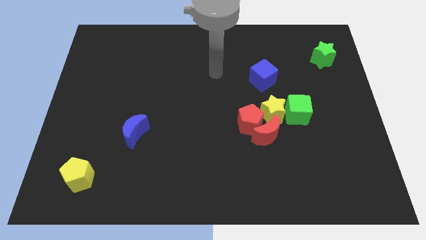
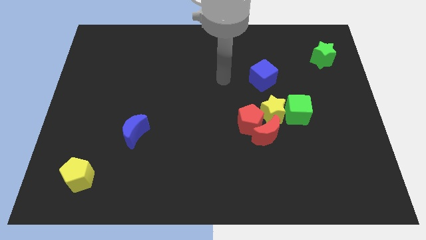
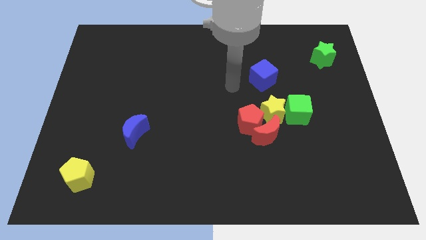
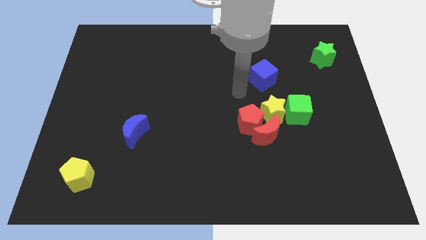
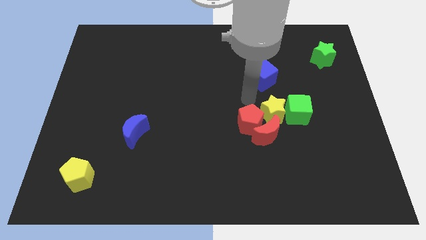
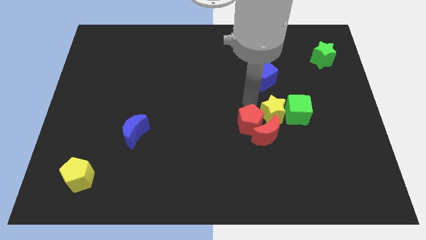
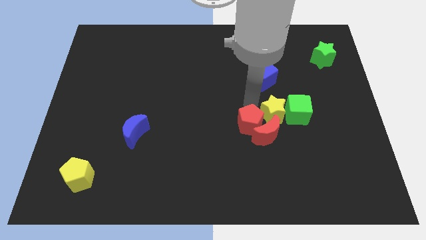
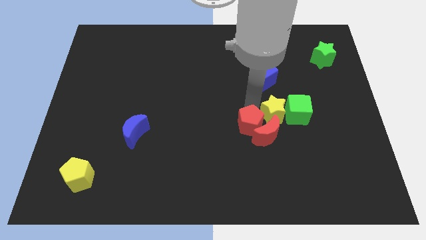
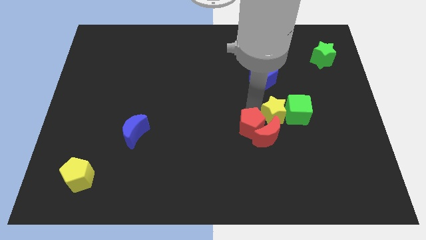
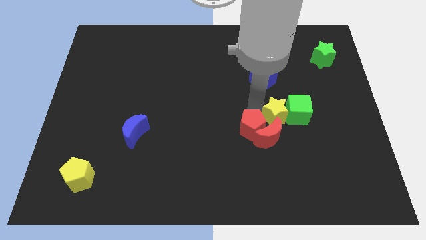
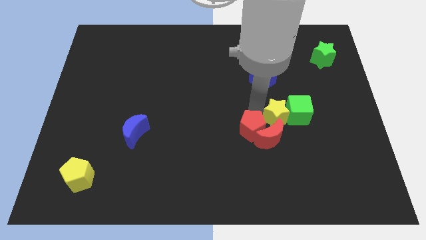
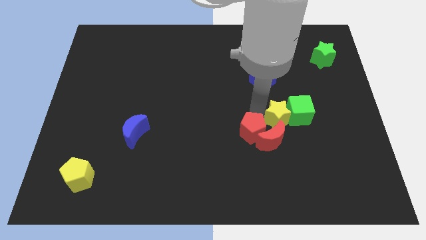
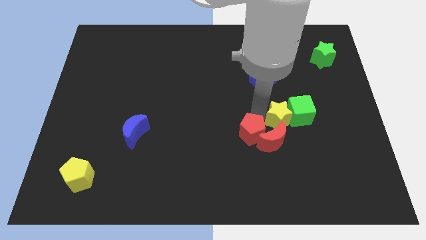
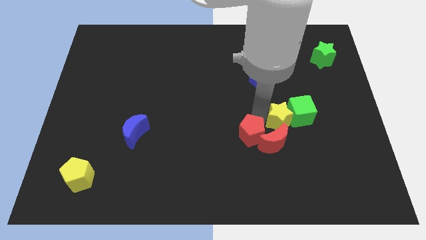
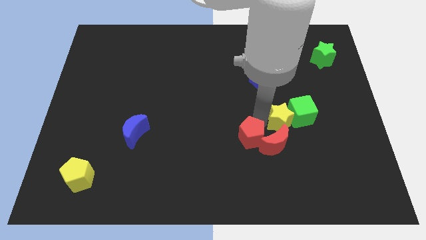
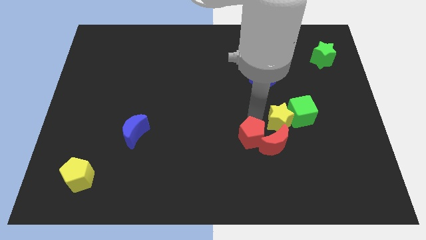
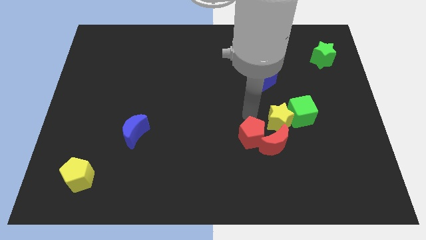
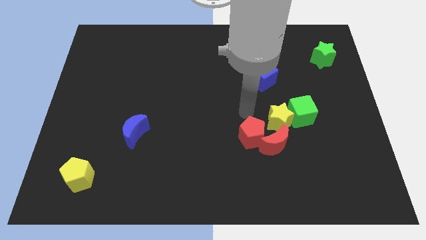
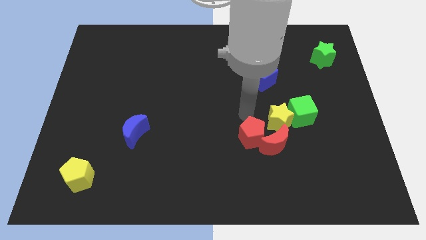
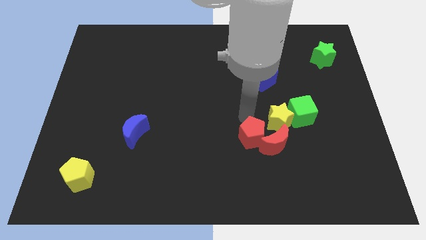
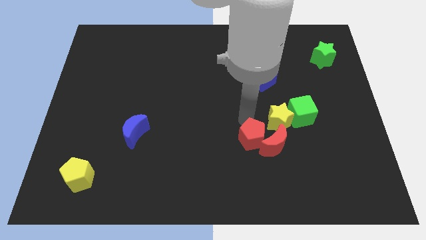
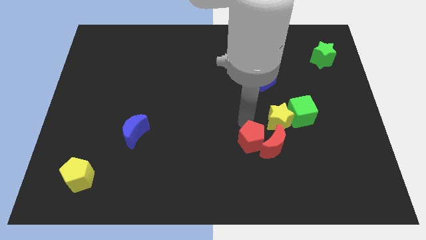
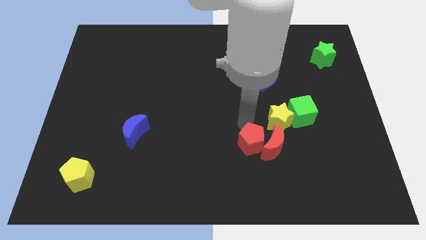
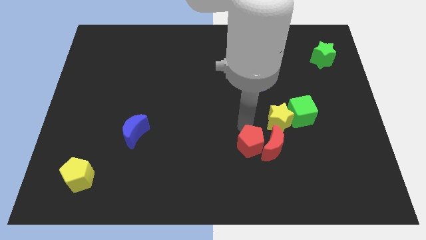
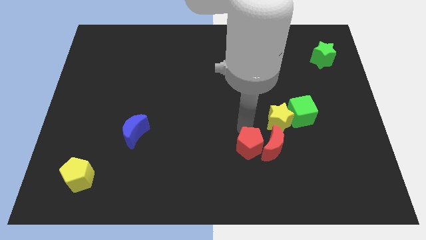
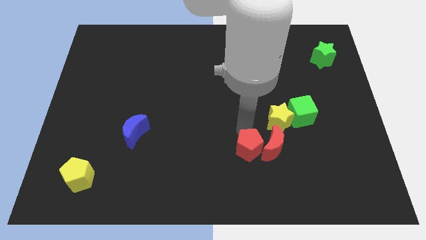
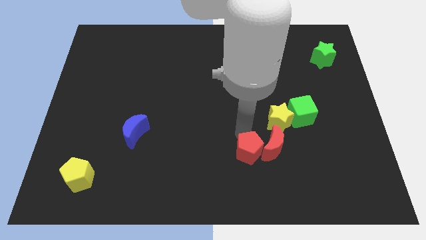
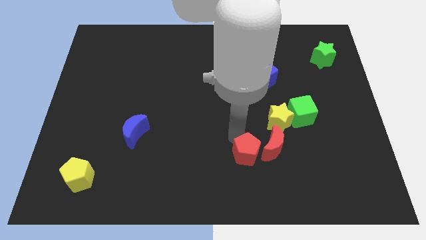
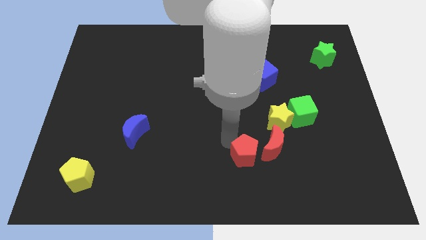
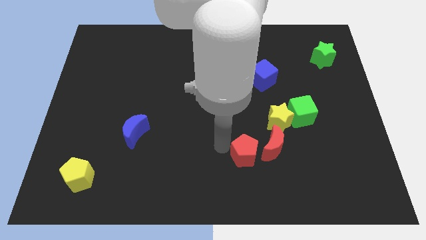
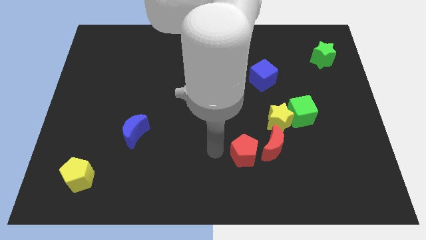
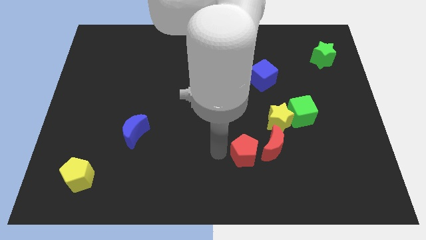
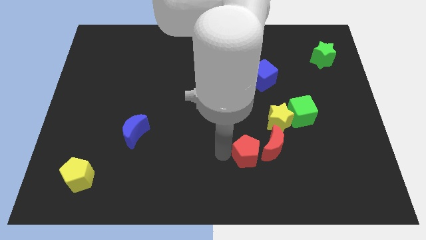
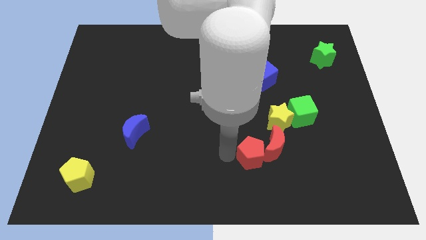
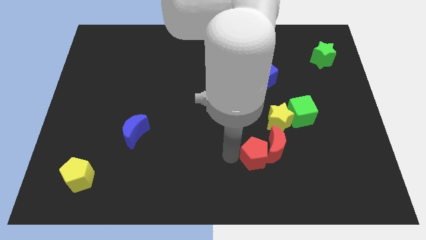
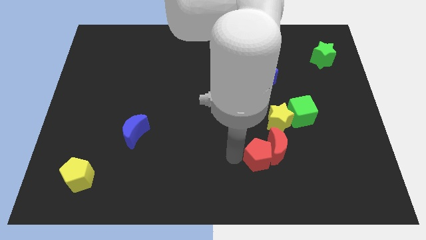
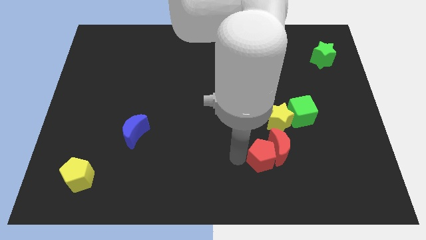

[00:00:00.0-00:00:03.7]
move the red pentagon down and to the right slightly

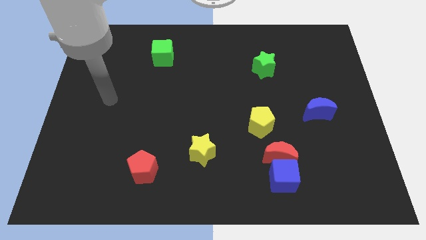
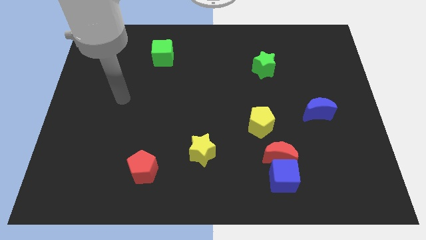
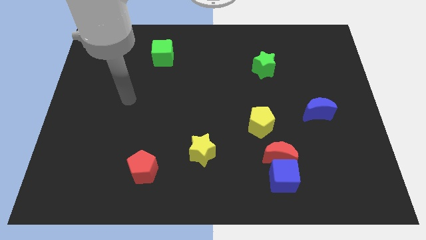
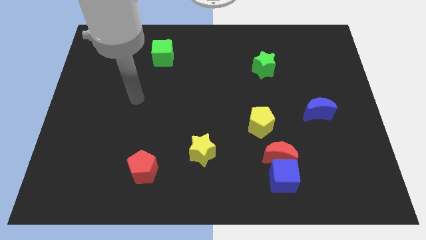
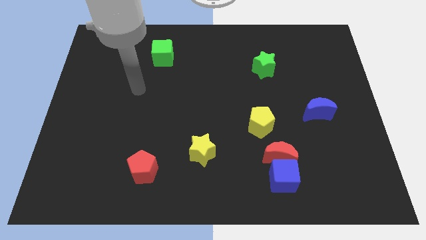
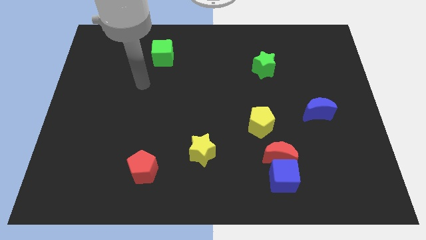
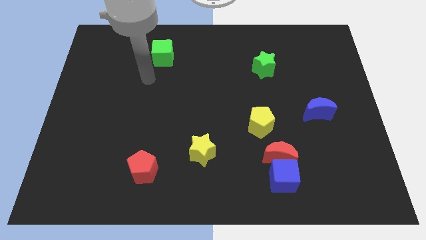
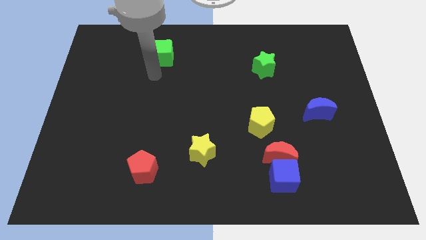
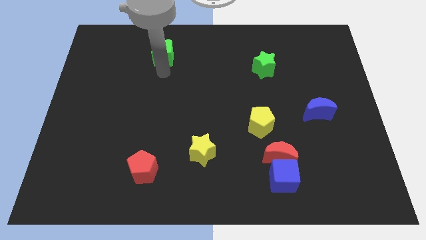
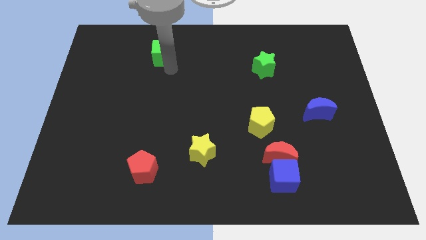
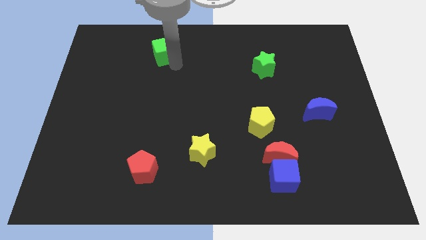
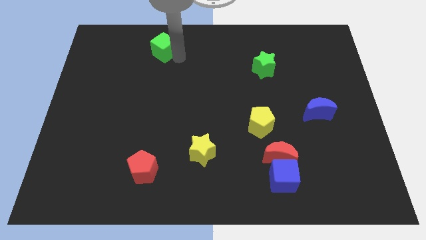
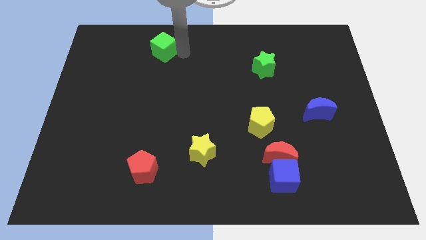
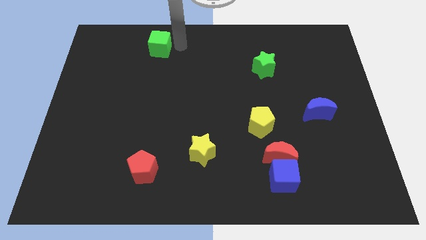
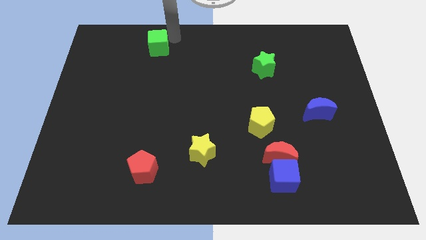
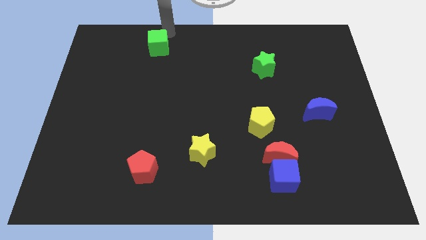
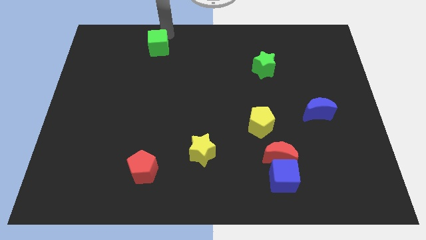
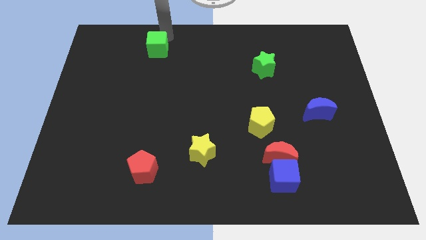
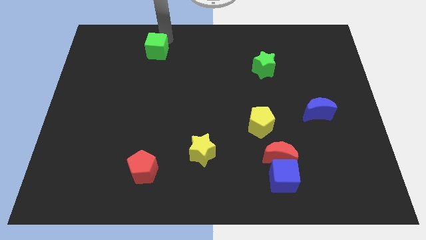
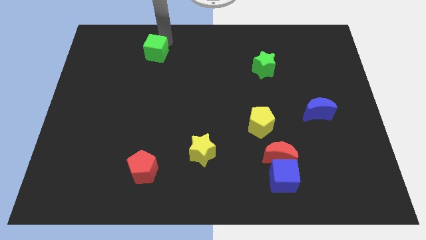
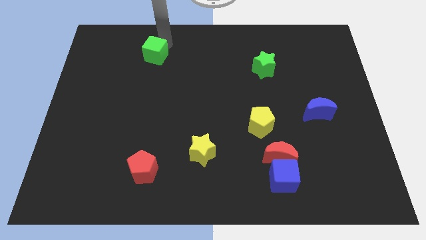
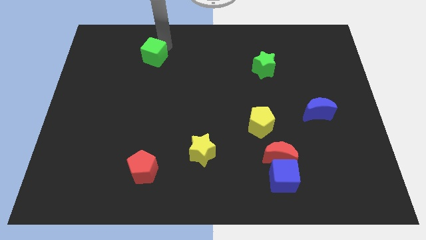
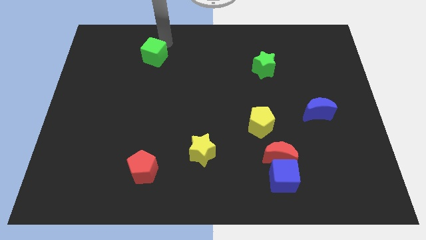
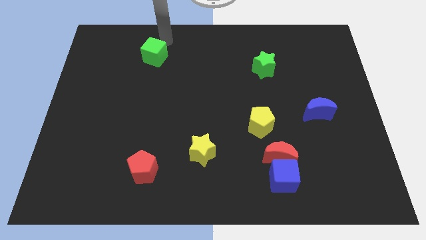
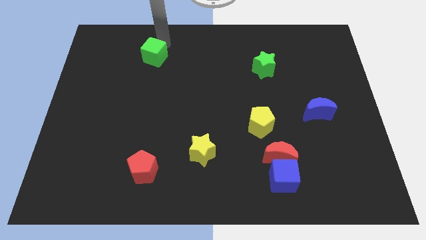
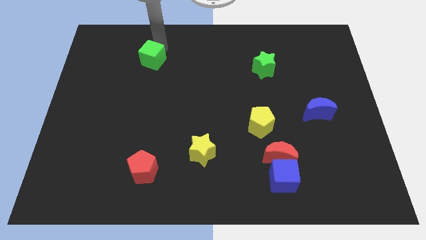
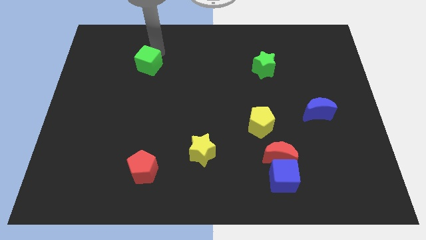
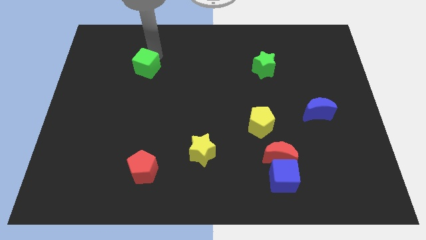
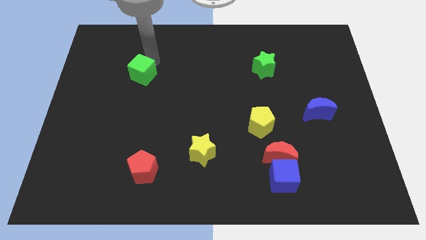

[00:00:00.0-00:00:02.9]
push the green cube a little down and to the left diagonally

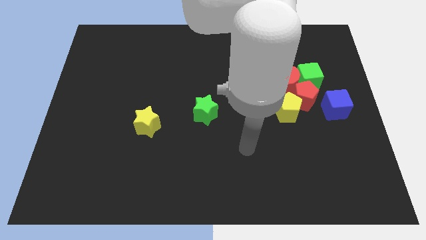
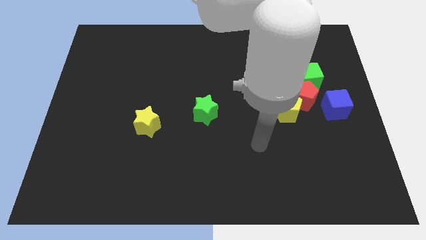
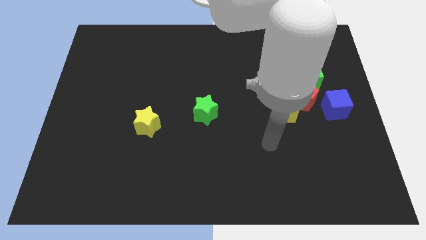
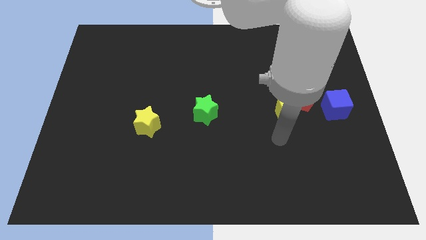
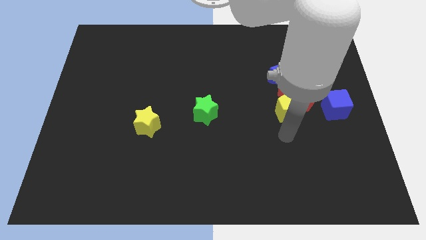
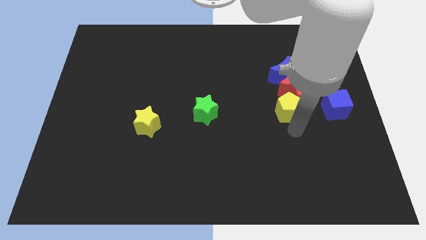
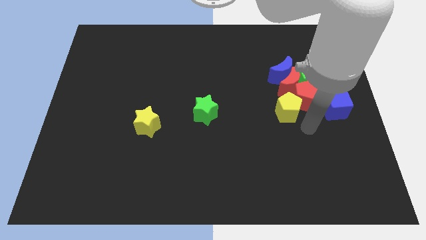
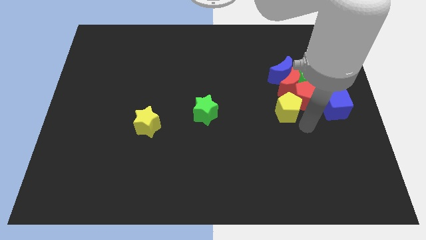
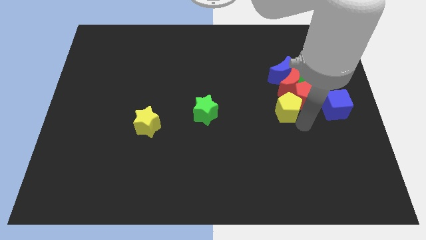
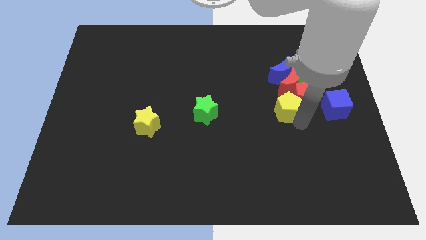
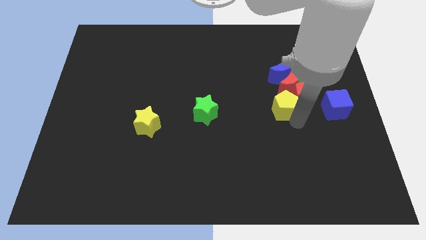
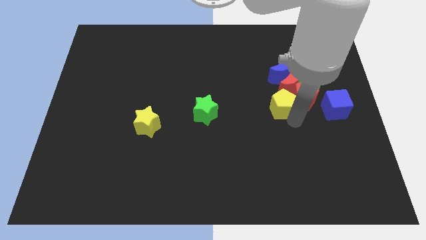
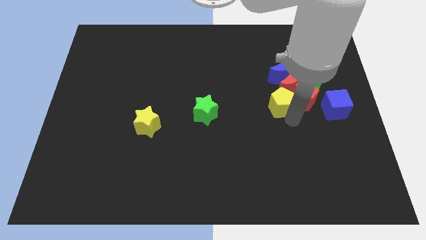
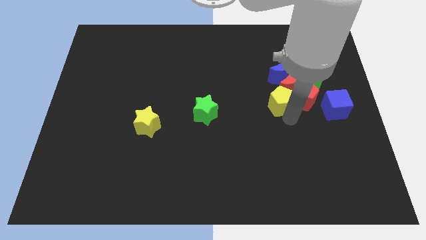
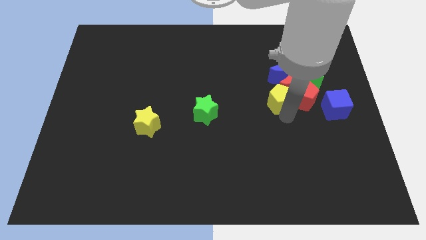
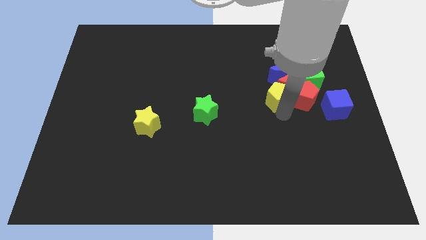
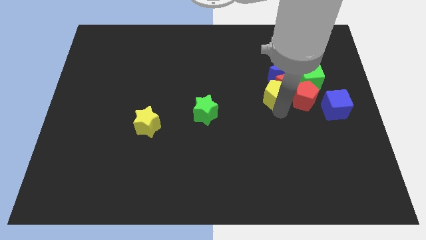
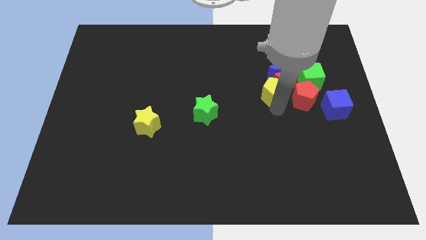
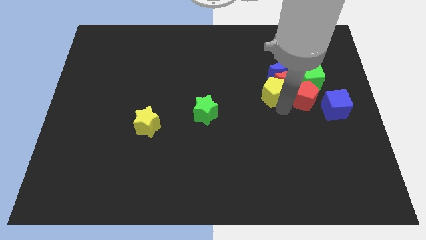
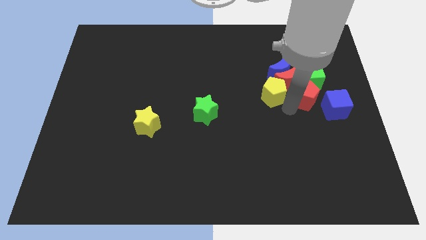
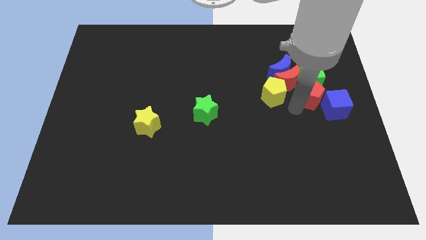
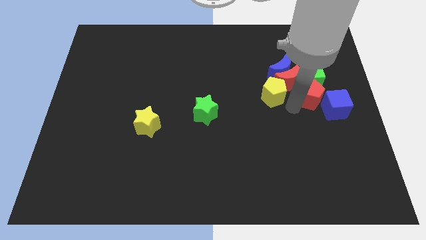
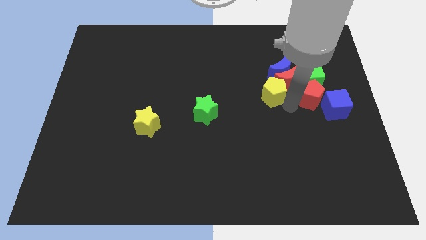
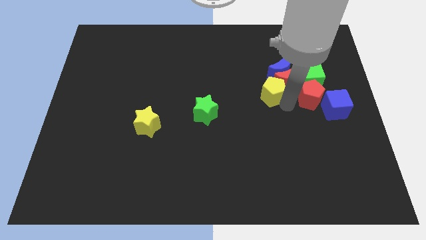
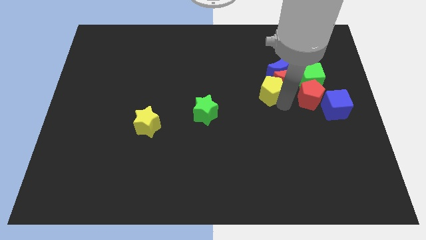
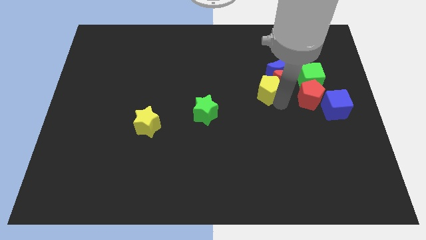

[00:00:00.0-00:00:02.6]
slightly move the yellow pentagon upwards and left
